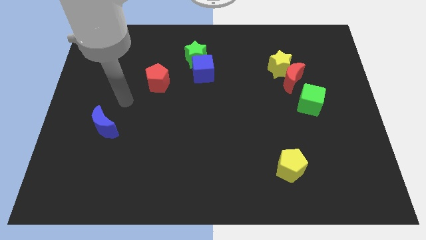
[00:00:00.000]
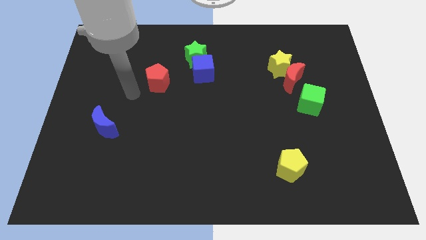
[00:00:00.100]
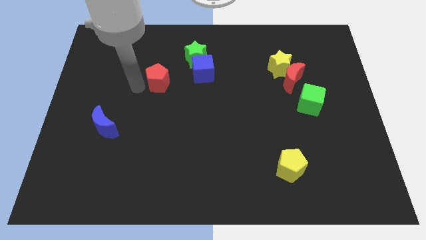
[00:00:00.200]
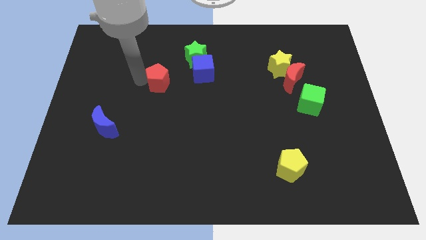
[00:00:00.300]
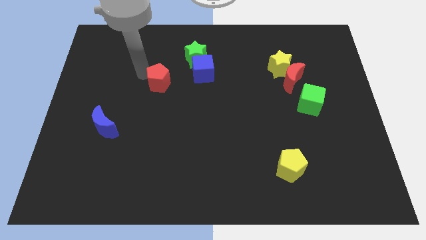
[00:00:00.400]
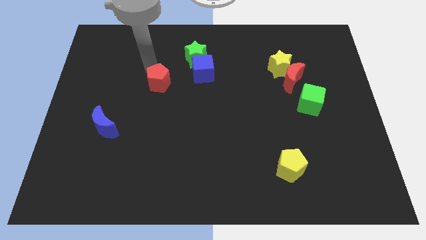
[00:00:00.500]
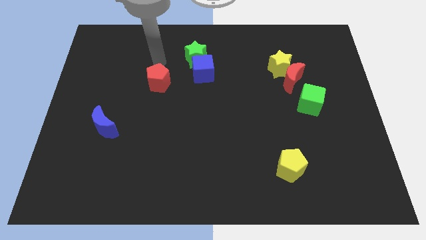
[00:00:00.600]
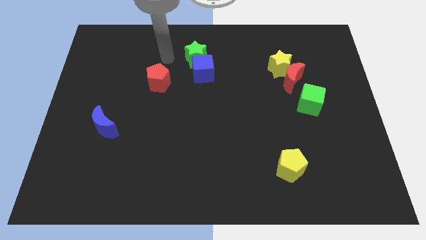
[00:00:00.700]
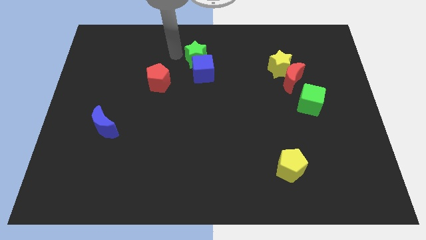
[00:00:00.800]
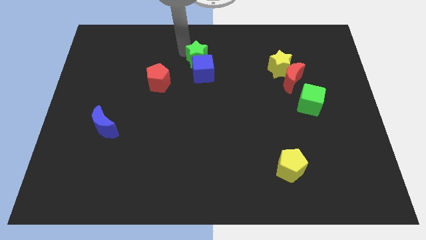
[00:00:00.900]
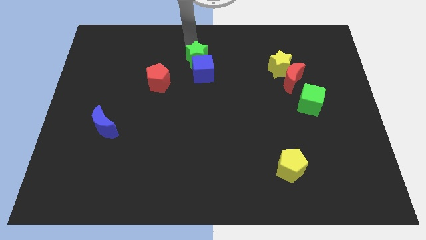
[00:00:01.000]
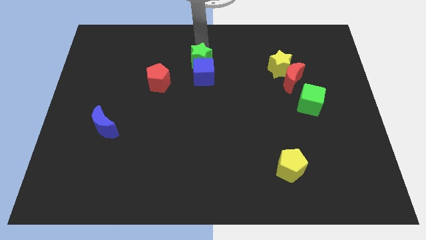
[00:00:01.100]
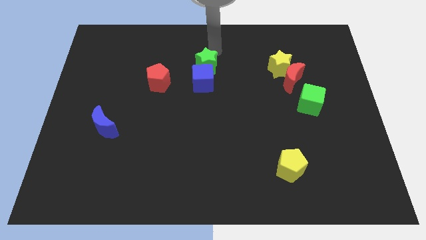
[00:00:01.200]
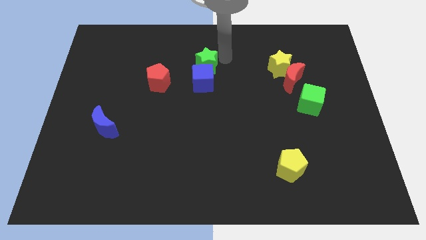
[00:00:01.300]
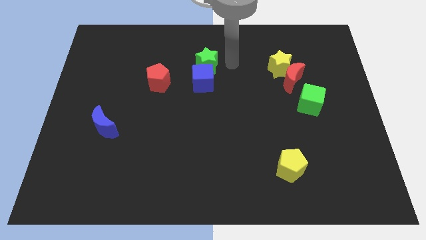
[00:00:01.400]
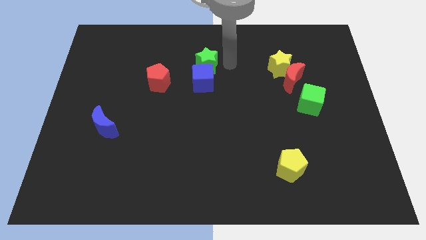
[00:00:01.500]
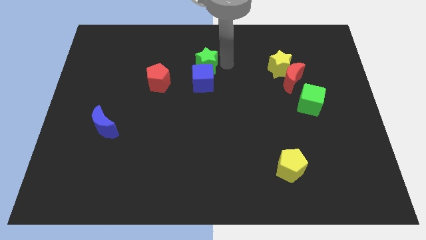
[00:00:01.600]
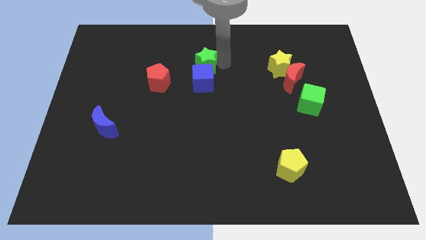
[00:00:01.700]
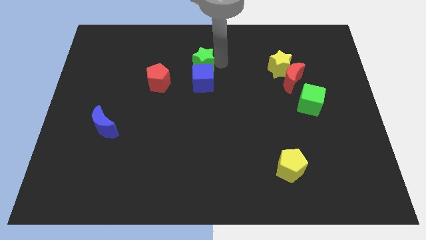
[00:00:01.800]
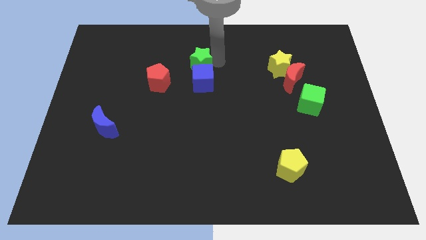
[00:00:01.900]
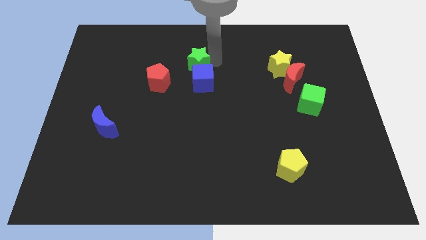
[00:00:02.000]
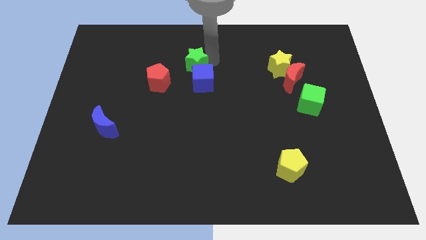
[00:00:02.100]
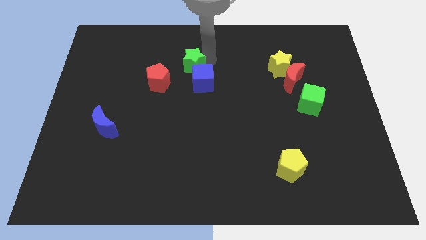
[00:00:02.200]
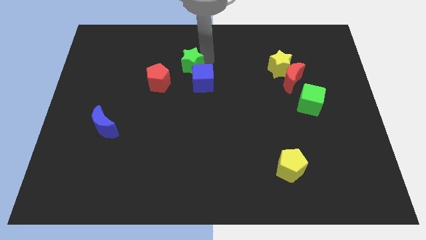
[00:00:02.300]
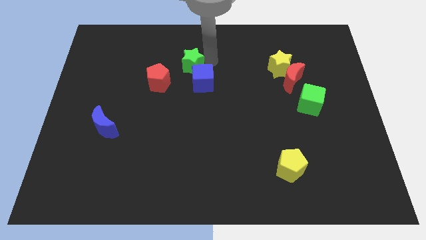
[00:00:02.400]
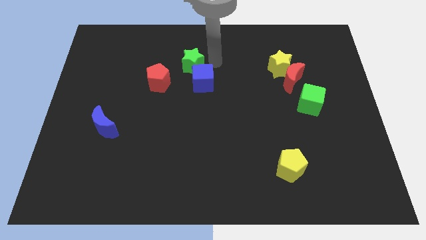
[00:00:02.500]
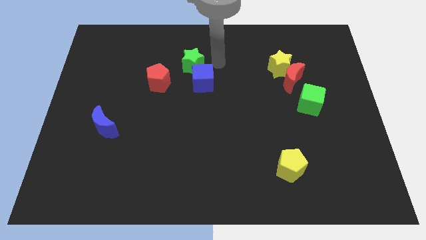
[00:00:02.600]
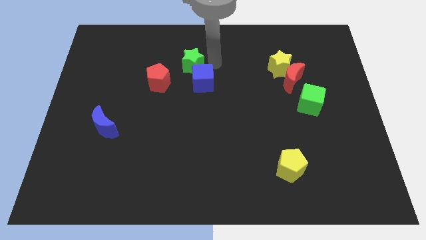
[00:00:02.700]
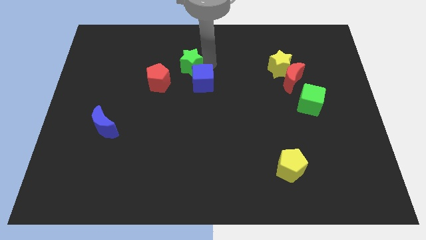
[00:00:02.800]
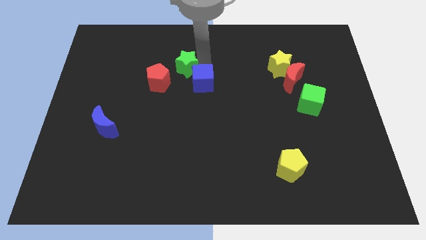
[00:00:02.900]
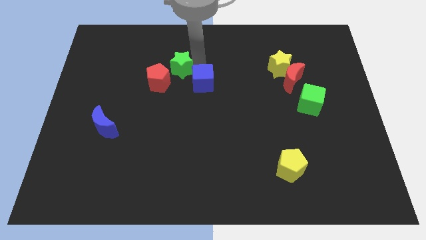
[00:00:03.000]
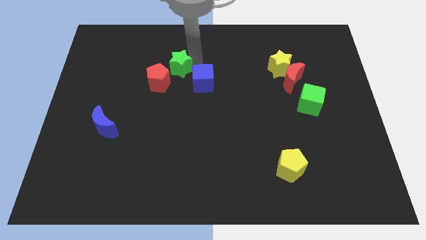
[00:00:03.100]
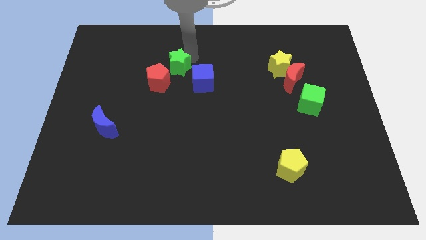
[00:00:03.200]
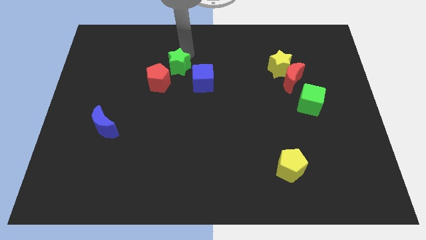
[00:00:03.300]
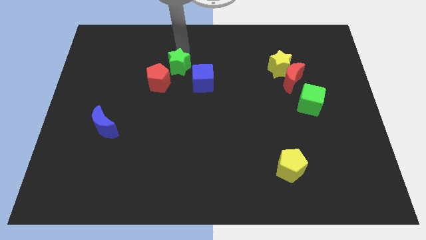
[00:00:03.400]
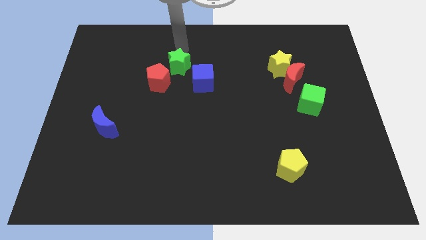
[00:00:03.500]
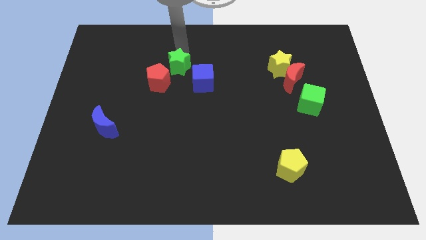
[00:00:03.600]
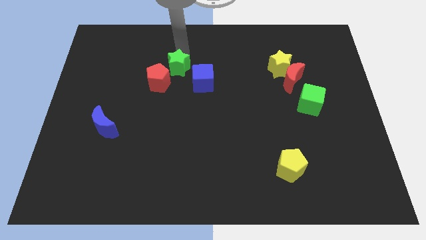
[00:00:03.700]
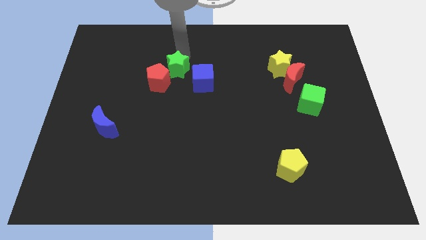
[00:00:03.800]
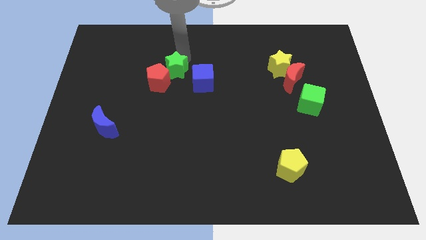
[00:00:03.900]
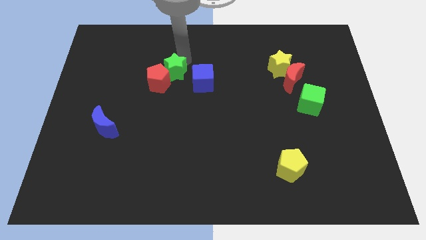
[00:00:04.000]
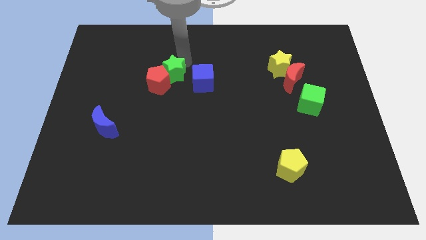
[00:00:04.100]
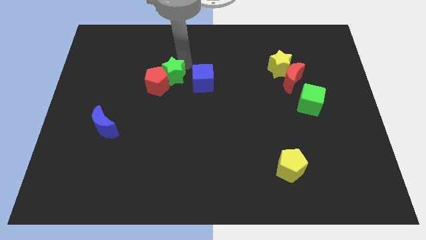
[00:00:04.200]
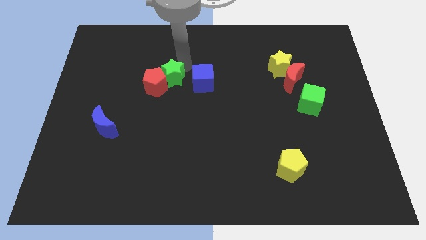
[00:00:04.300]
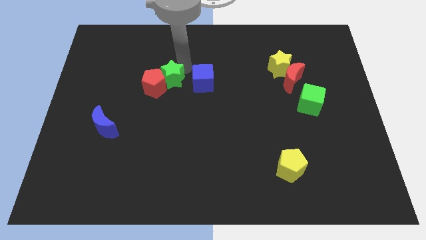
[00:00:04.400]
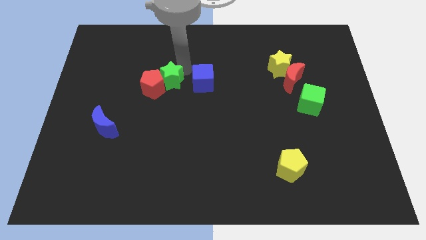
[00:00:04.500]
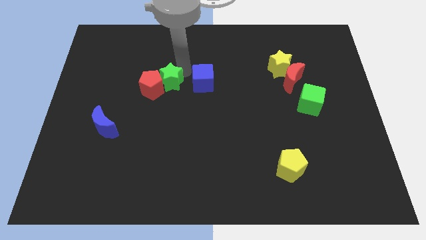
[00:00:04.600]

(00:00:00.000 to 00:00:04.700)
slightly slide the green star downwards

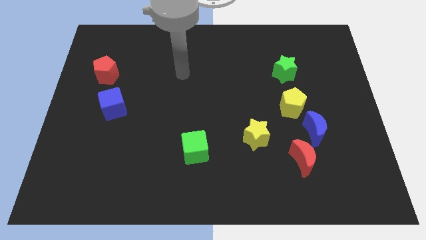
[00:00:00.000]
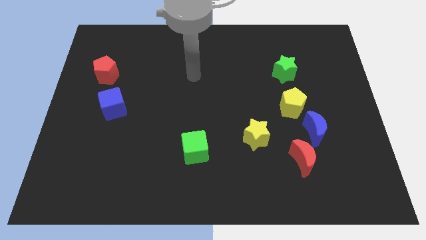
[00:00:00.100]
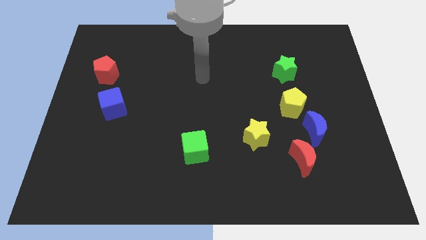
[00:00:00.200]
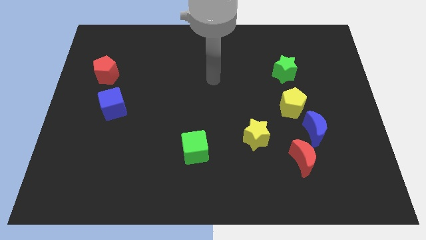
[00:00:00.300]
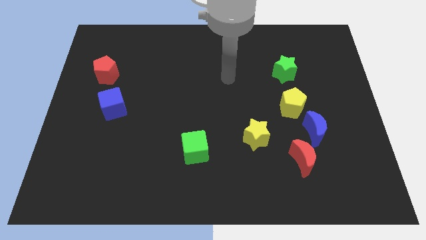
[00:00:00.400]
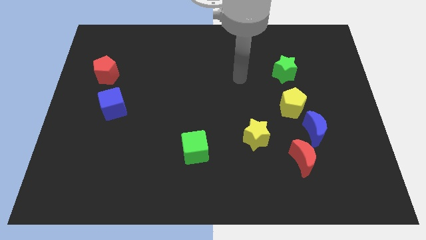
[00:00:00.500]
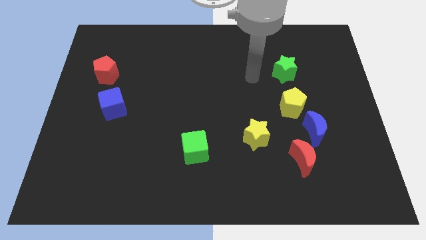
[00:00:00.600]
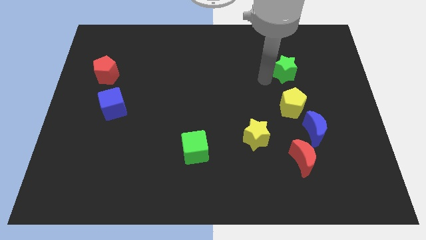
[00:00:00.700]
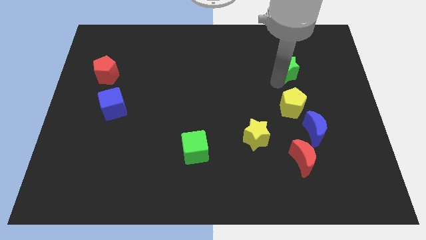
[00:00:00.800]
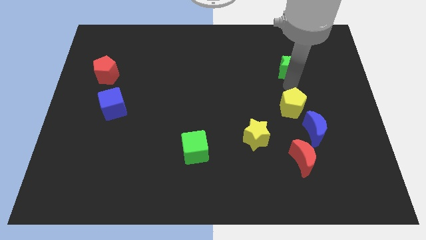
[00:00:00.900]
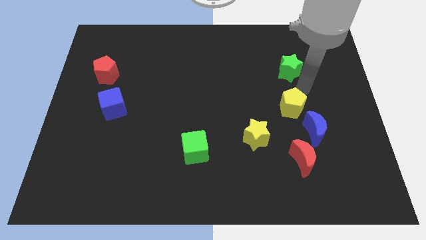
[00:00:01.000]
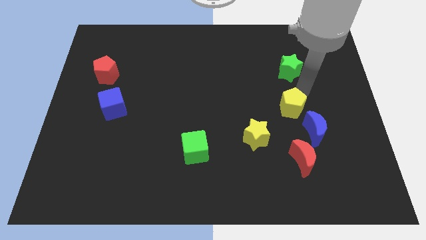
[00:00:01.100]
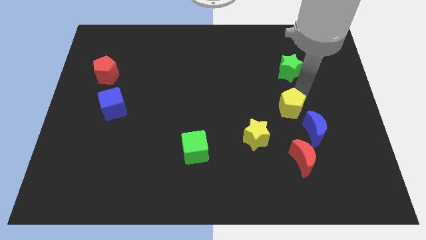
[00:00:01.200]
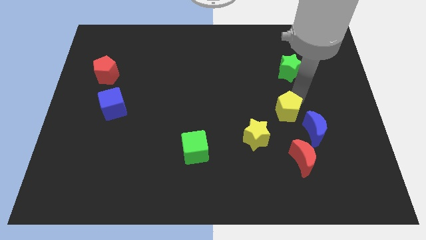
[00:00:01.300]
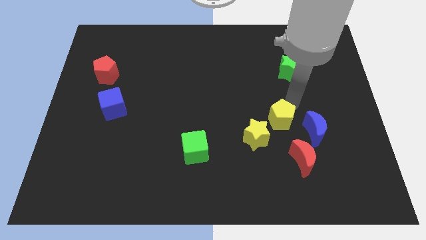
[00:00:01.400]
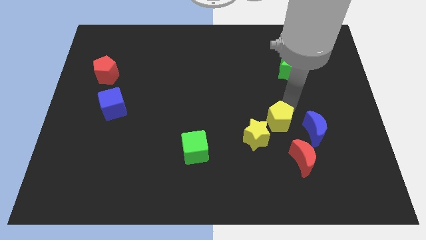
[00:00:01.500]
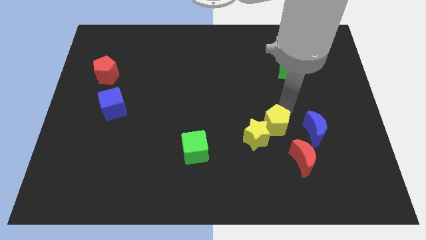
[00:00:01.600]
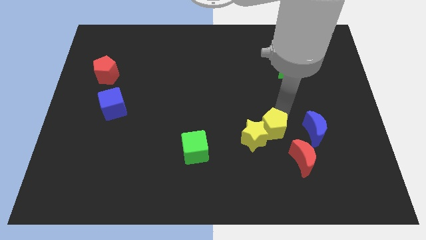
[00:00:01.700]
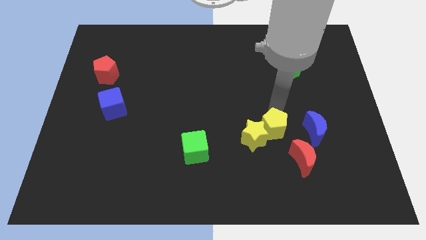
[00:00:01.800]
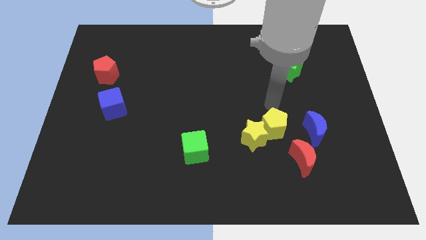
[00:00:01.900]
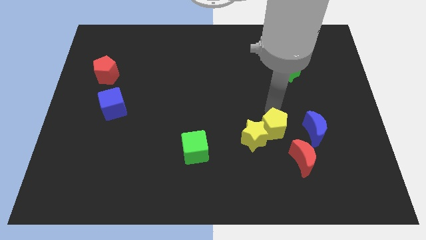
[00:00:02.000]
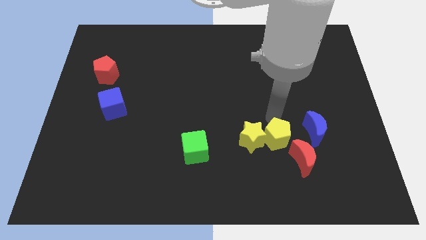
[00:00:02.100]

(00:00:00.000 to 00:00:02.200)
push the yellow pentagon downwards a little bit

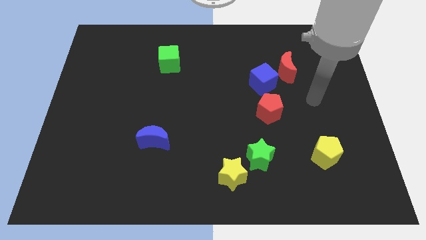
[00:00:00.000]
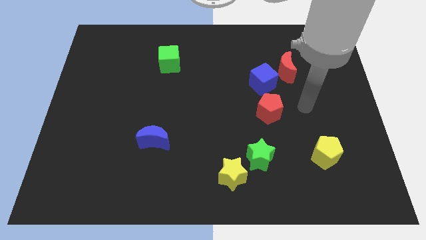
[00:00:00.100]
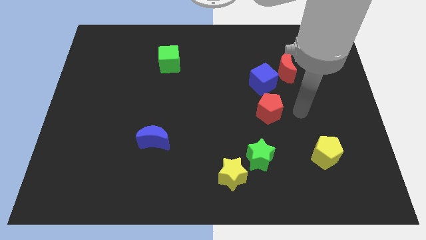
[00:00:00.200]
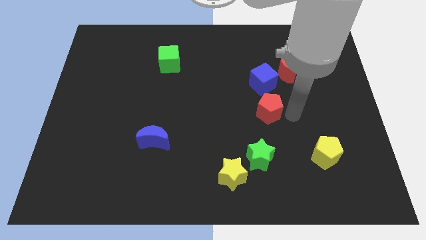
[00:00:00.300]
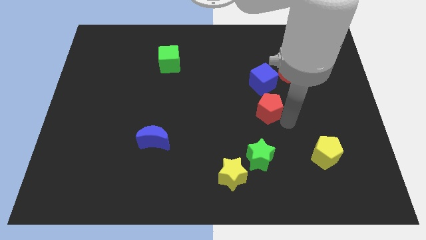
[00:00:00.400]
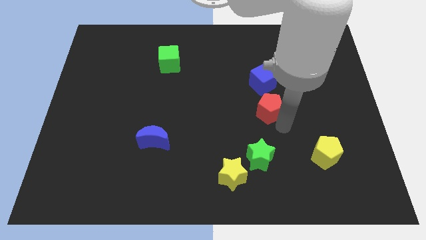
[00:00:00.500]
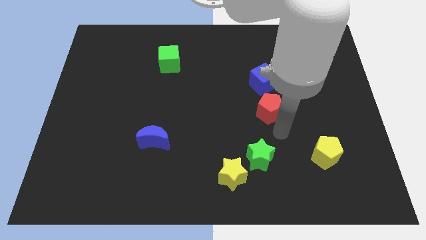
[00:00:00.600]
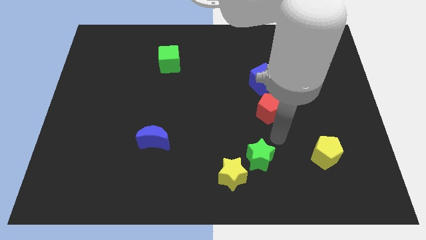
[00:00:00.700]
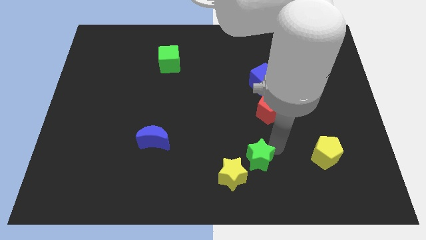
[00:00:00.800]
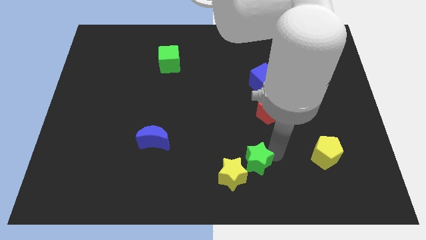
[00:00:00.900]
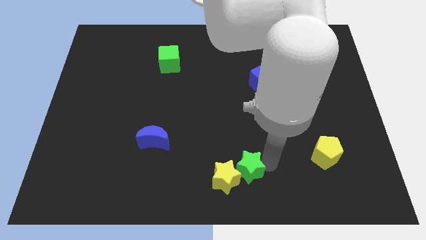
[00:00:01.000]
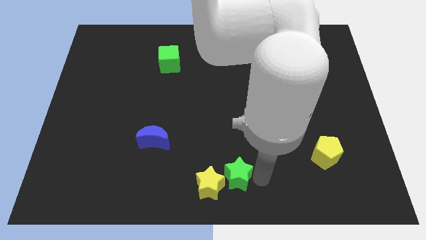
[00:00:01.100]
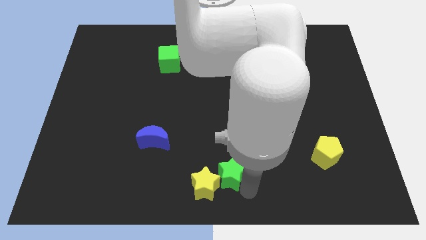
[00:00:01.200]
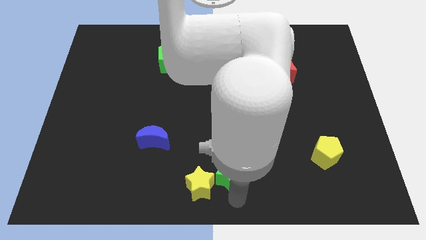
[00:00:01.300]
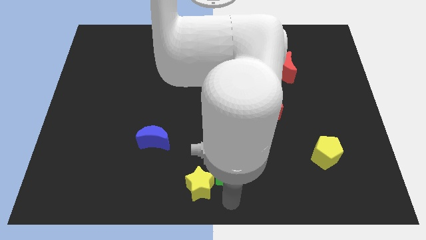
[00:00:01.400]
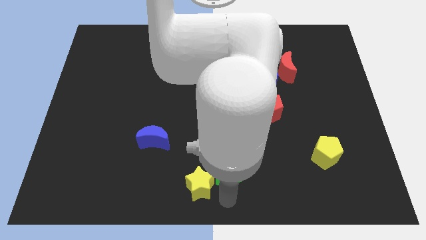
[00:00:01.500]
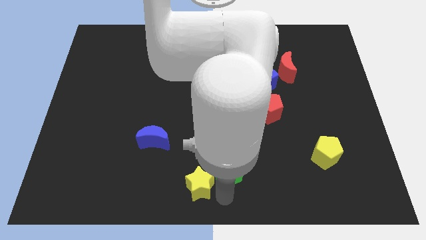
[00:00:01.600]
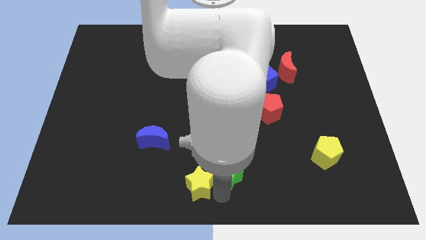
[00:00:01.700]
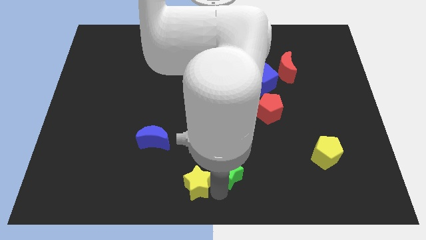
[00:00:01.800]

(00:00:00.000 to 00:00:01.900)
slide the yellow star slightly to the left
